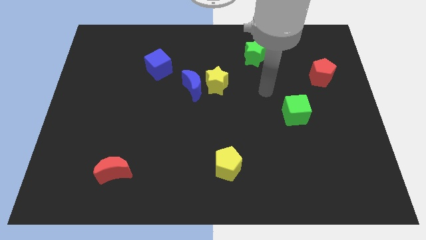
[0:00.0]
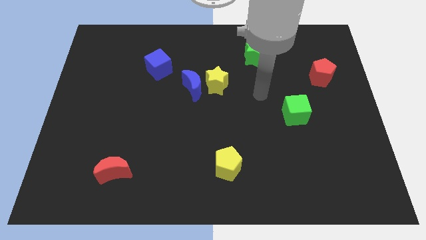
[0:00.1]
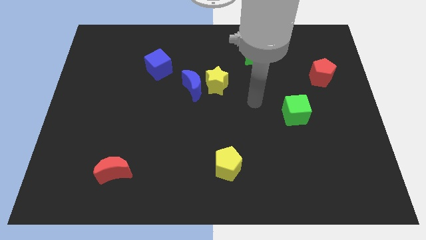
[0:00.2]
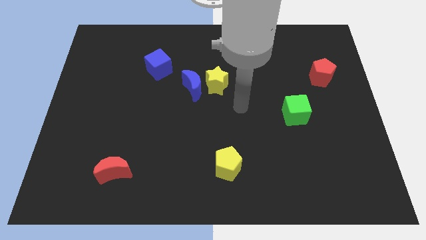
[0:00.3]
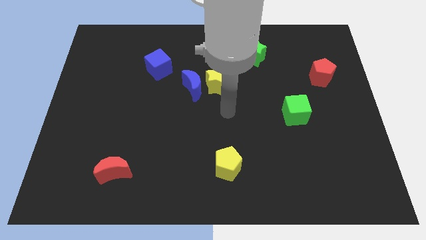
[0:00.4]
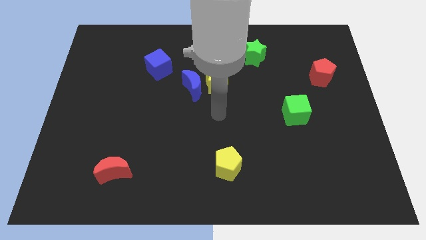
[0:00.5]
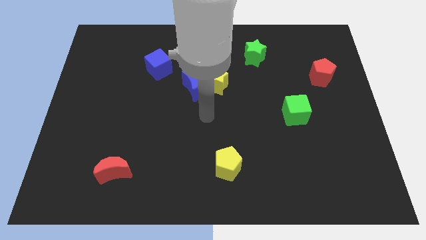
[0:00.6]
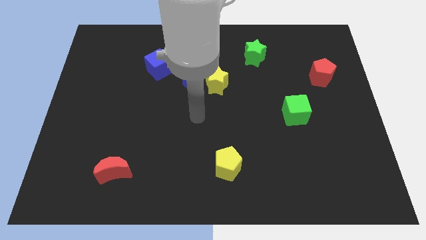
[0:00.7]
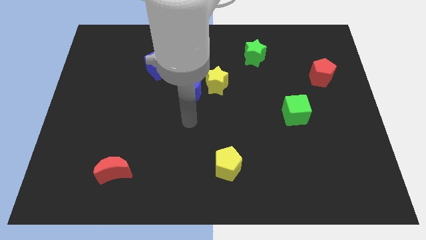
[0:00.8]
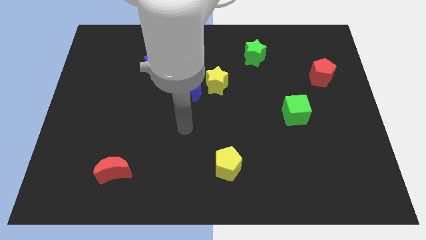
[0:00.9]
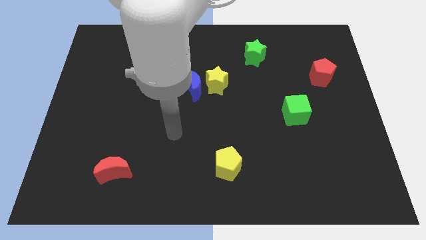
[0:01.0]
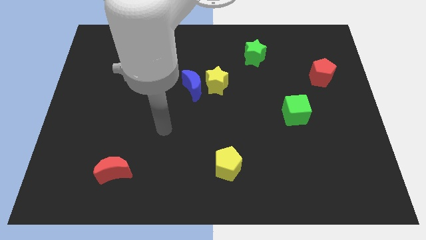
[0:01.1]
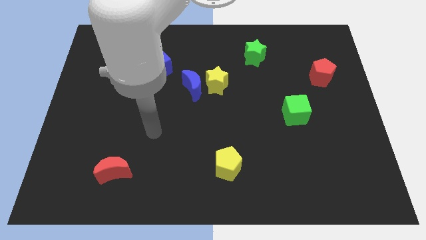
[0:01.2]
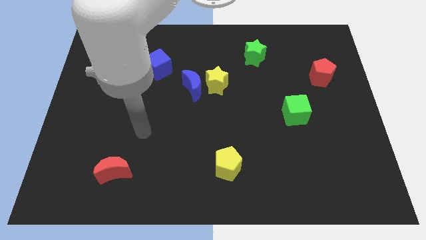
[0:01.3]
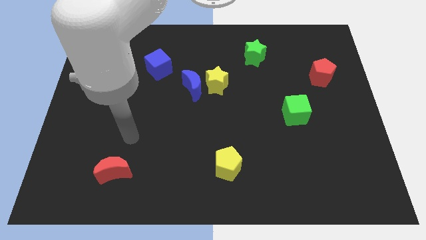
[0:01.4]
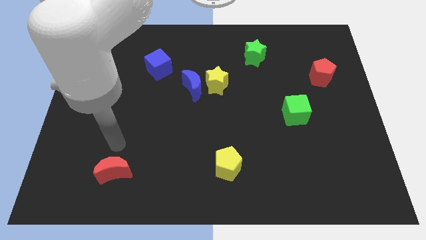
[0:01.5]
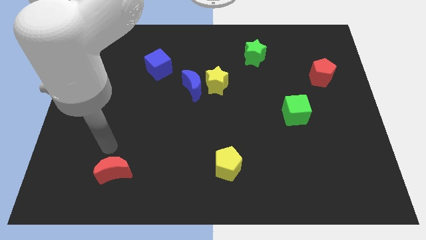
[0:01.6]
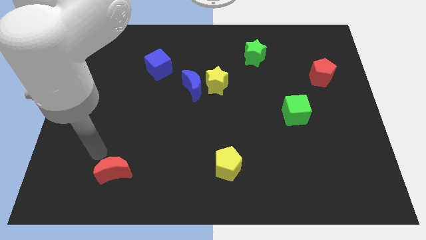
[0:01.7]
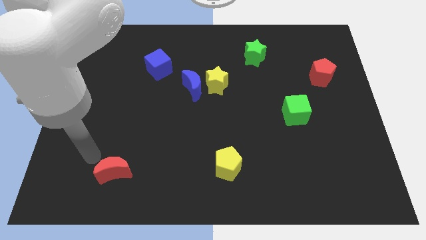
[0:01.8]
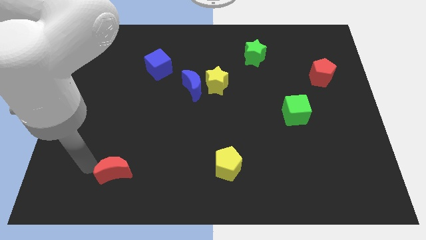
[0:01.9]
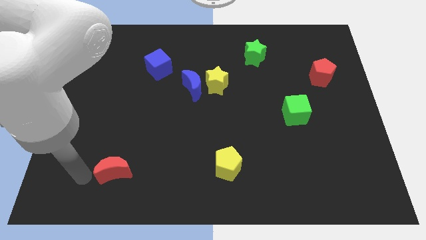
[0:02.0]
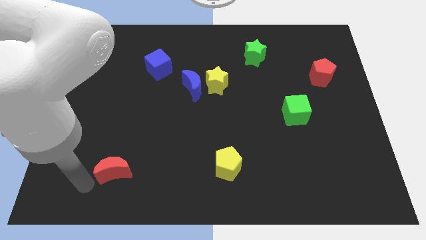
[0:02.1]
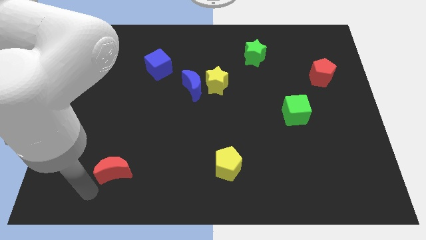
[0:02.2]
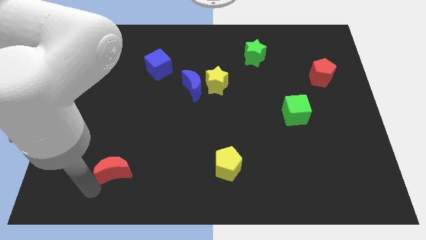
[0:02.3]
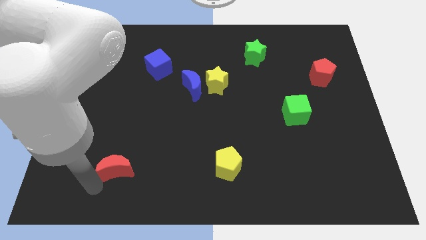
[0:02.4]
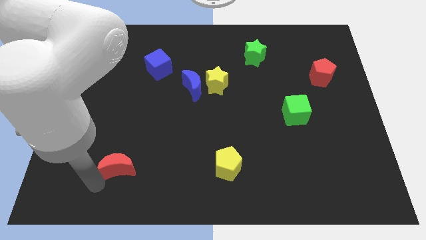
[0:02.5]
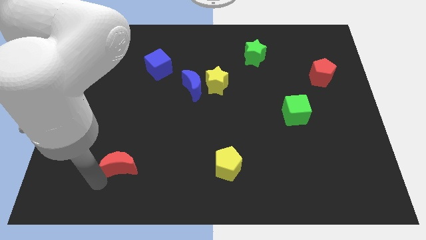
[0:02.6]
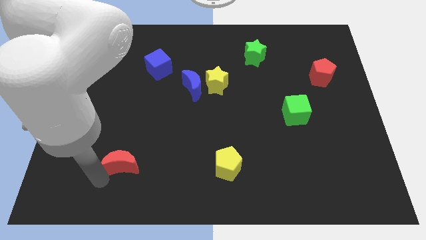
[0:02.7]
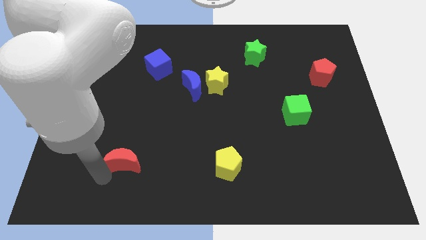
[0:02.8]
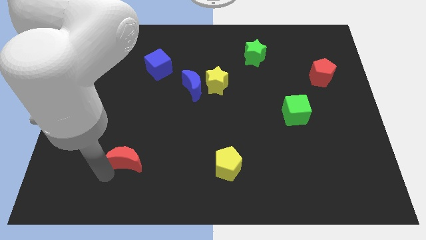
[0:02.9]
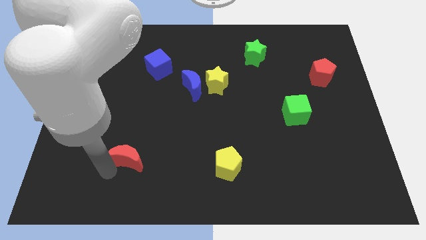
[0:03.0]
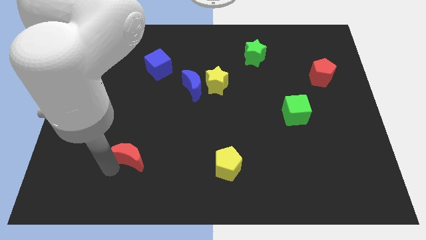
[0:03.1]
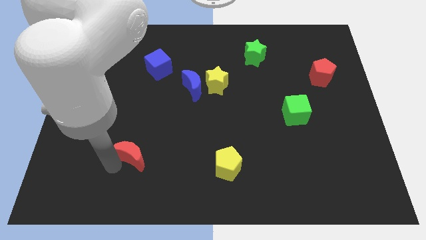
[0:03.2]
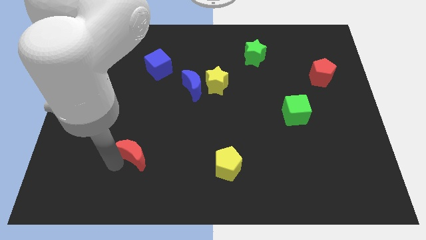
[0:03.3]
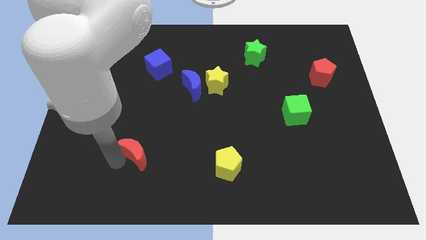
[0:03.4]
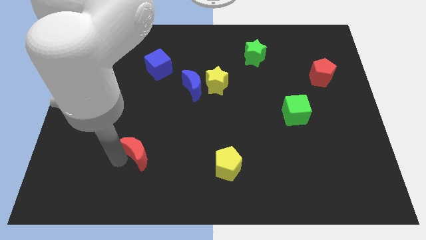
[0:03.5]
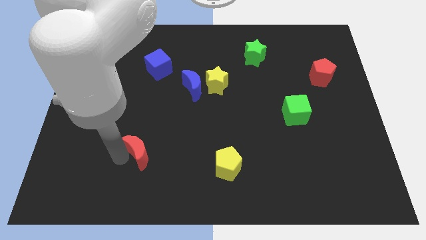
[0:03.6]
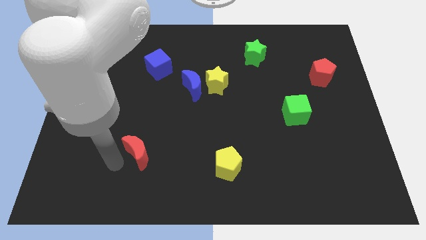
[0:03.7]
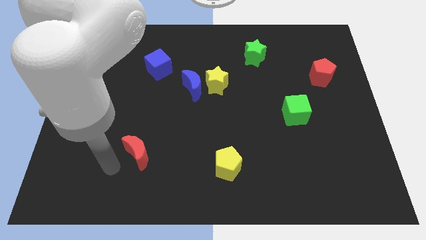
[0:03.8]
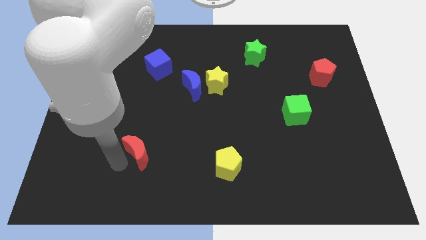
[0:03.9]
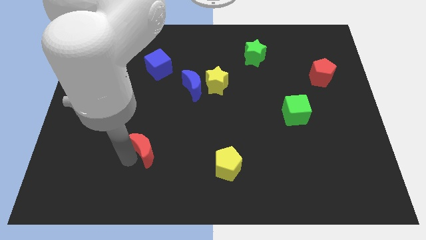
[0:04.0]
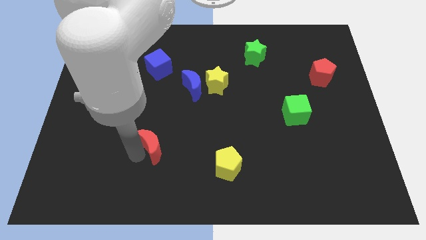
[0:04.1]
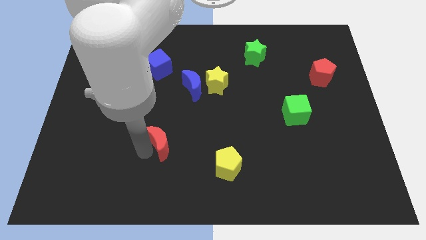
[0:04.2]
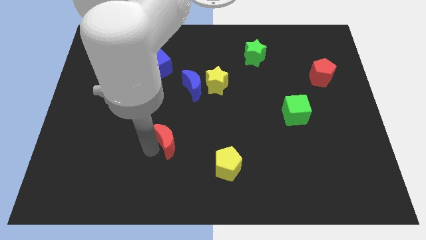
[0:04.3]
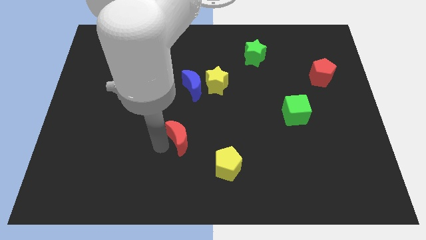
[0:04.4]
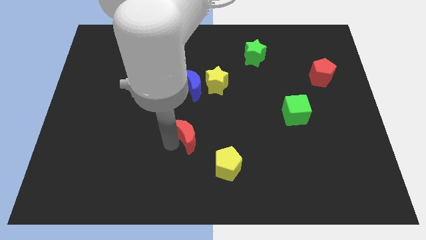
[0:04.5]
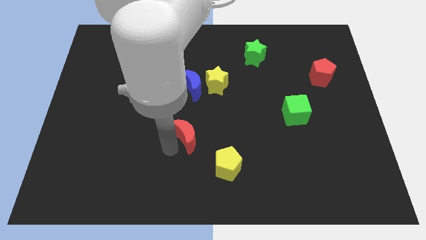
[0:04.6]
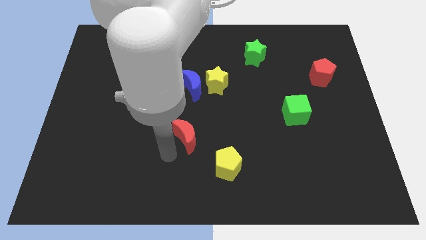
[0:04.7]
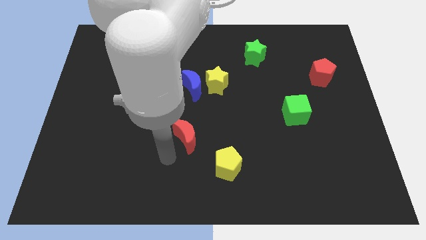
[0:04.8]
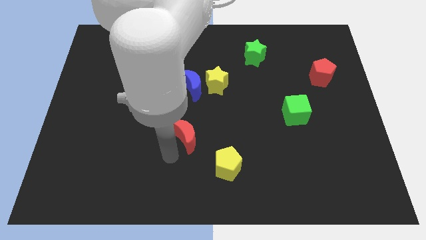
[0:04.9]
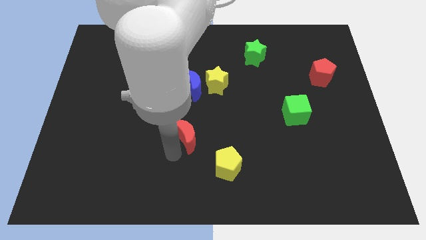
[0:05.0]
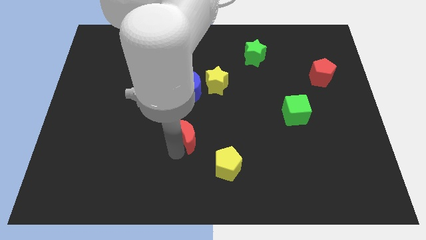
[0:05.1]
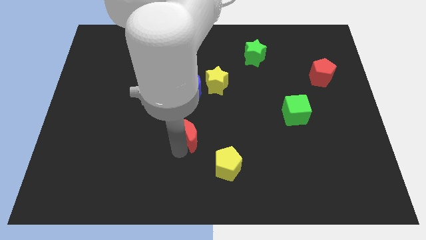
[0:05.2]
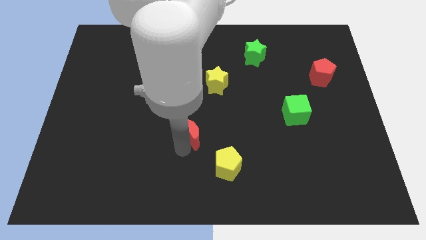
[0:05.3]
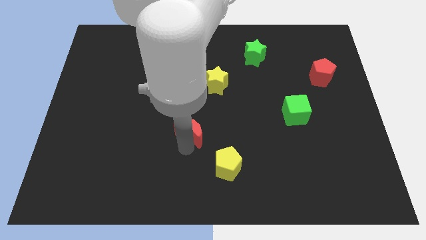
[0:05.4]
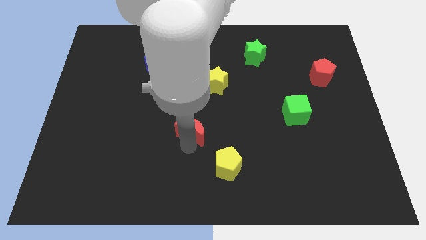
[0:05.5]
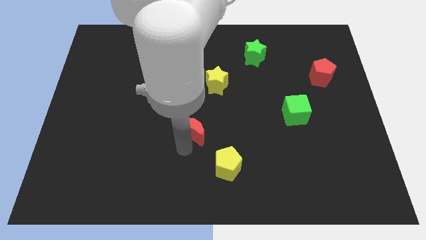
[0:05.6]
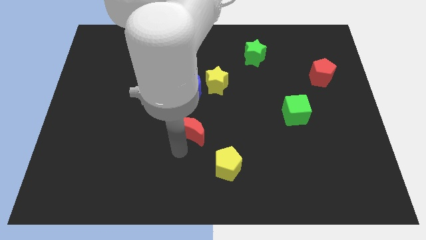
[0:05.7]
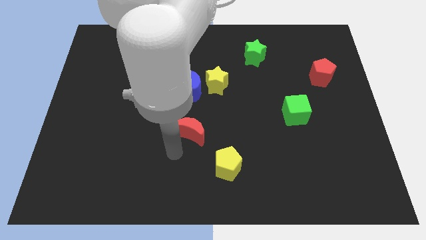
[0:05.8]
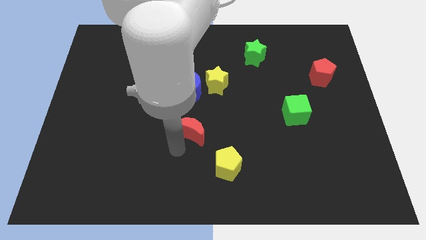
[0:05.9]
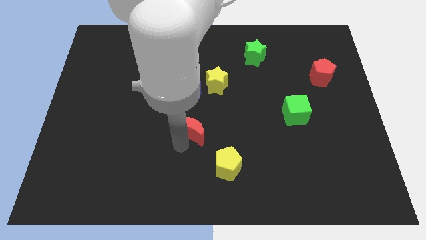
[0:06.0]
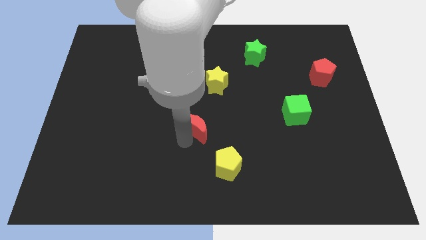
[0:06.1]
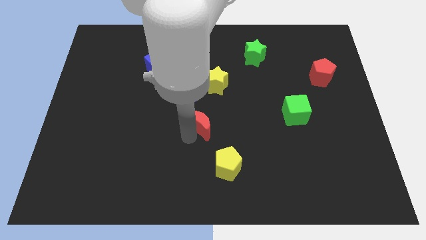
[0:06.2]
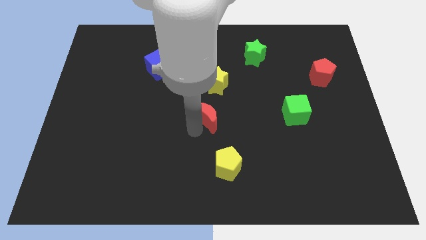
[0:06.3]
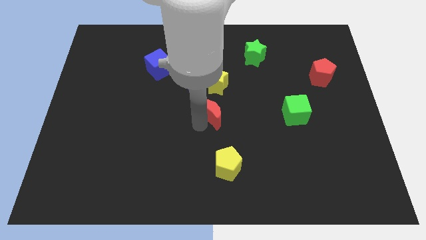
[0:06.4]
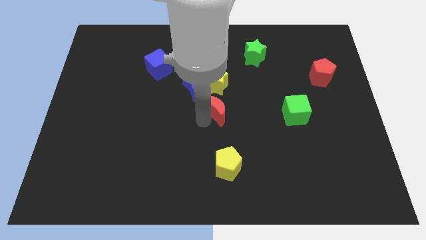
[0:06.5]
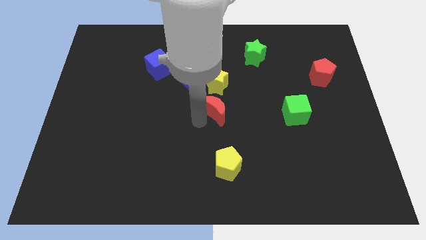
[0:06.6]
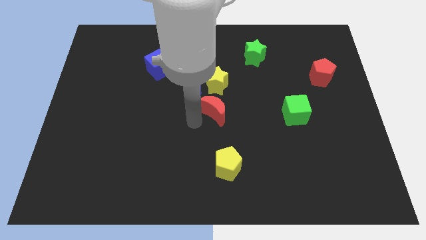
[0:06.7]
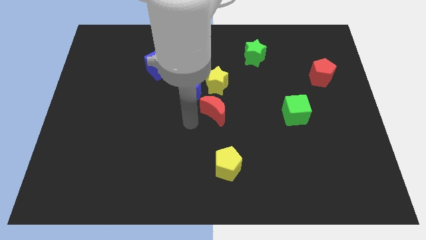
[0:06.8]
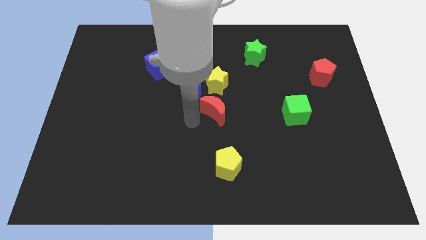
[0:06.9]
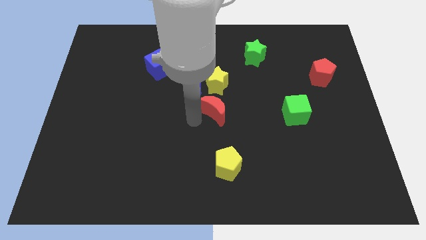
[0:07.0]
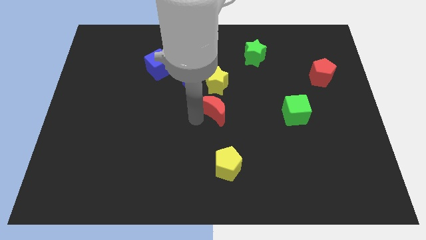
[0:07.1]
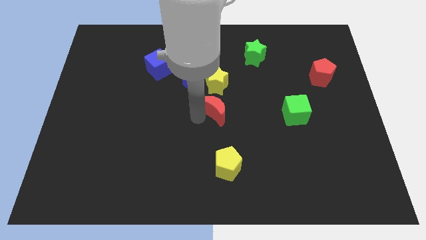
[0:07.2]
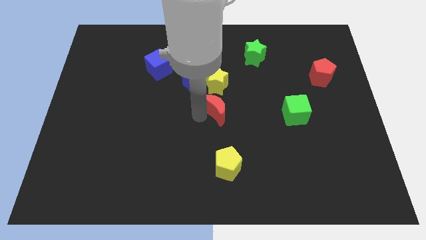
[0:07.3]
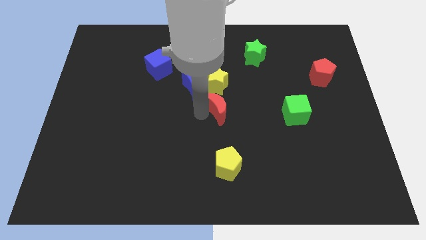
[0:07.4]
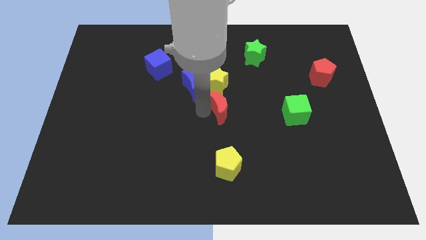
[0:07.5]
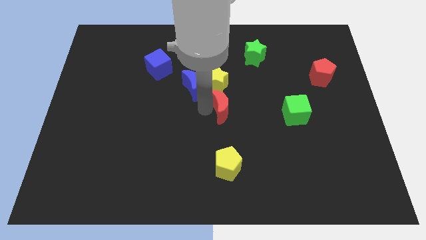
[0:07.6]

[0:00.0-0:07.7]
push the red moon to the bottom right of the yellow star
